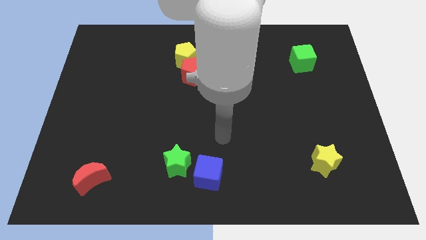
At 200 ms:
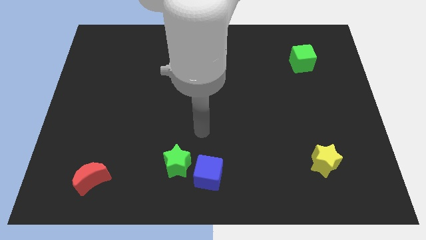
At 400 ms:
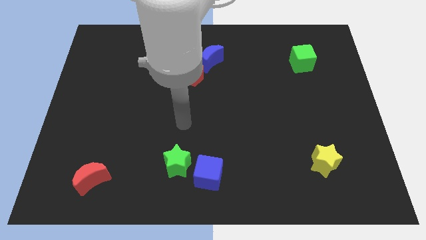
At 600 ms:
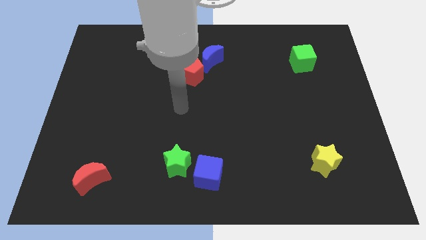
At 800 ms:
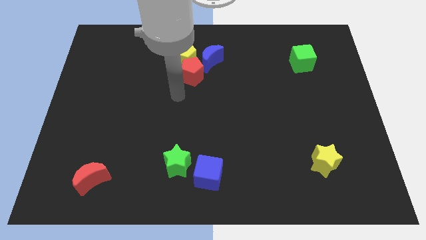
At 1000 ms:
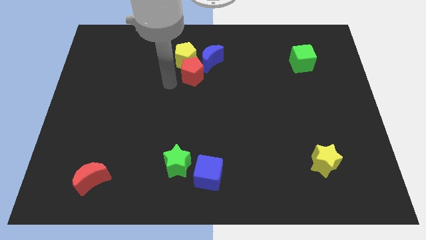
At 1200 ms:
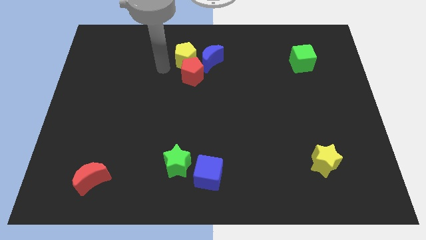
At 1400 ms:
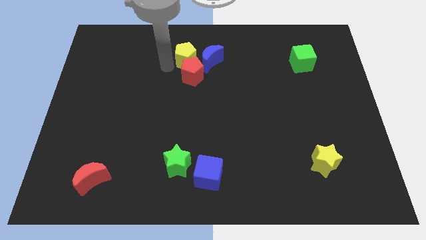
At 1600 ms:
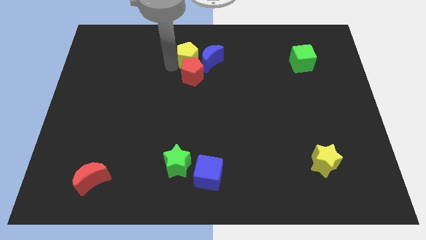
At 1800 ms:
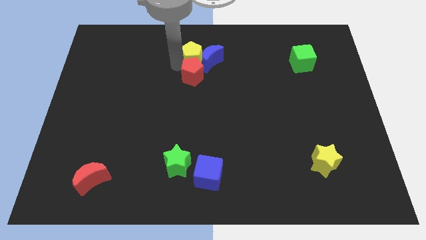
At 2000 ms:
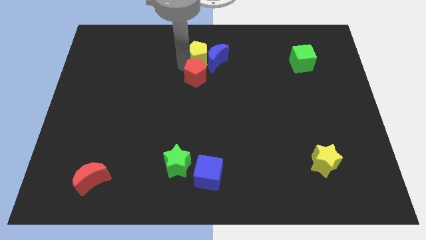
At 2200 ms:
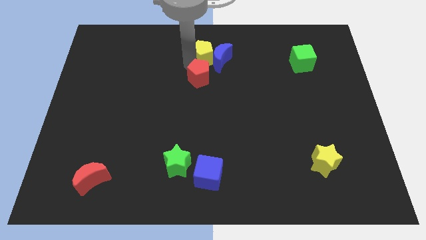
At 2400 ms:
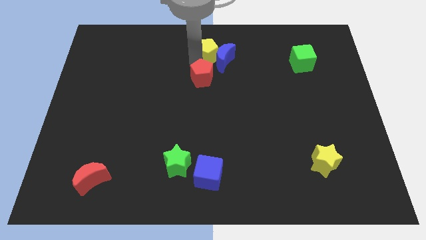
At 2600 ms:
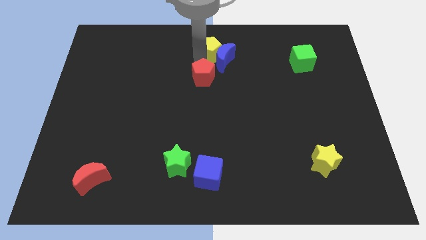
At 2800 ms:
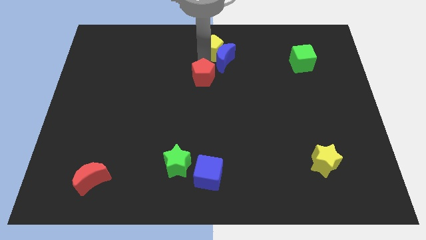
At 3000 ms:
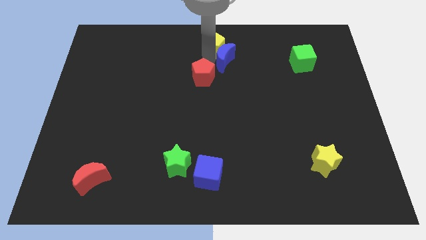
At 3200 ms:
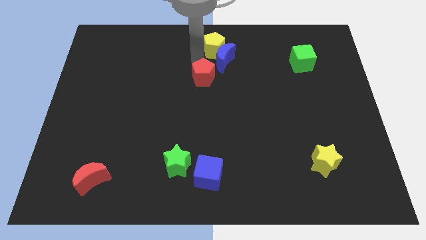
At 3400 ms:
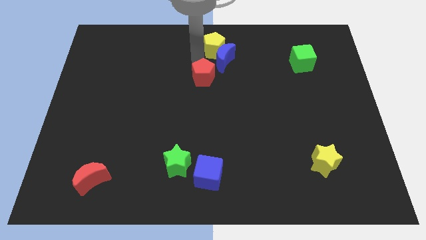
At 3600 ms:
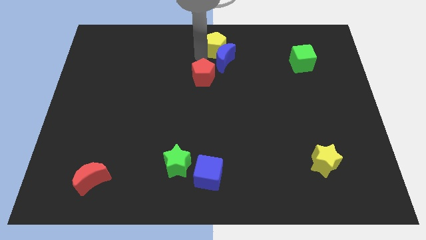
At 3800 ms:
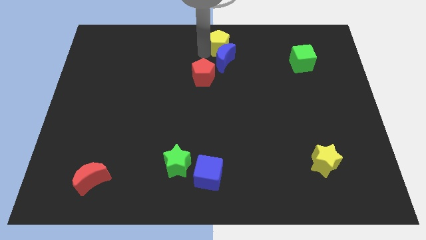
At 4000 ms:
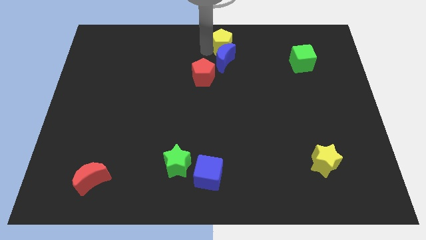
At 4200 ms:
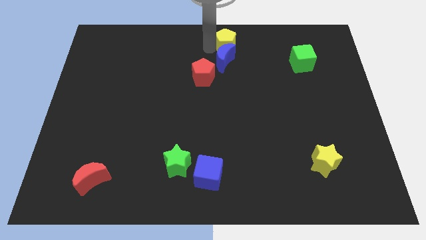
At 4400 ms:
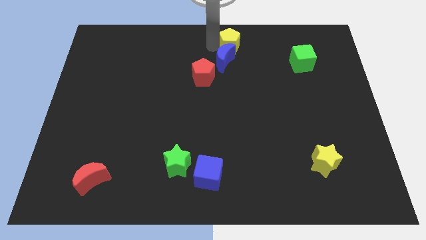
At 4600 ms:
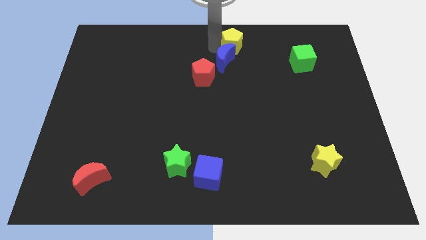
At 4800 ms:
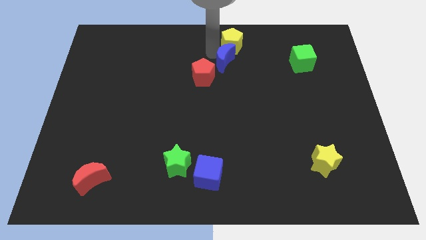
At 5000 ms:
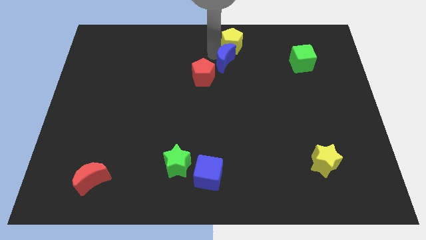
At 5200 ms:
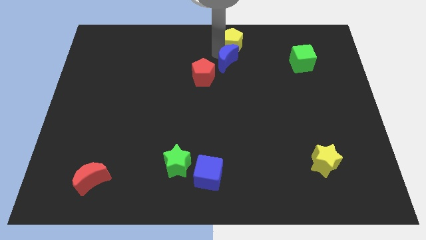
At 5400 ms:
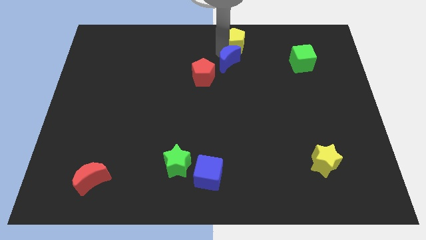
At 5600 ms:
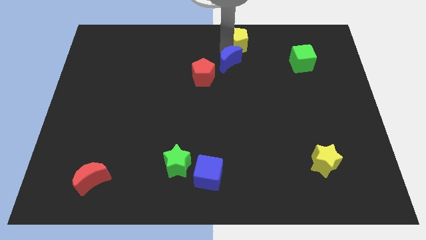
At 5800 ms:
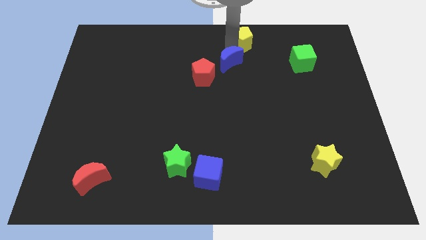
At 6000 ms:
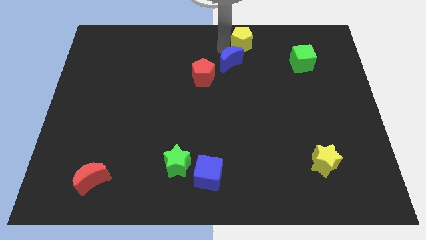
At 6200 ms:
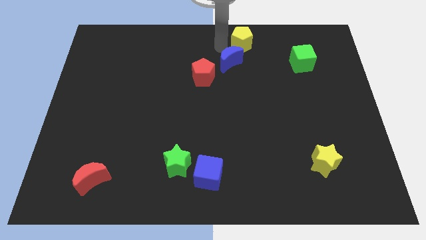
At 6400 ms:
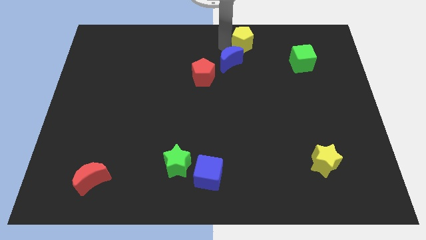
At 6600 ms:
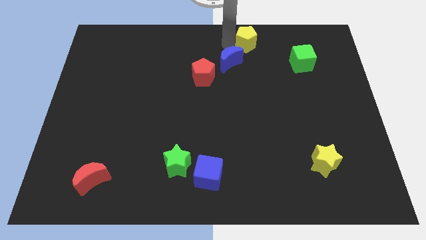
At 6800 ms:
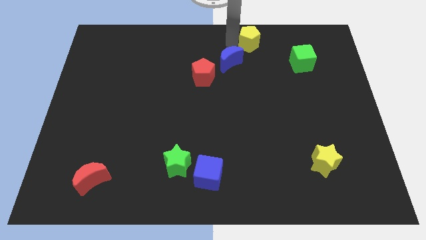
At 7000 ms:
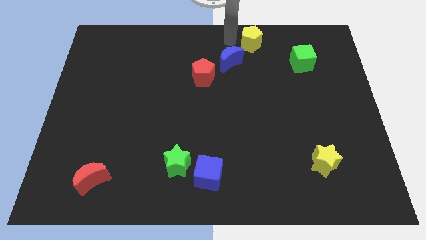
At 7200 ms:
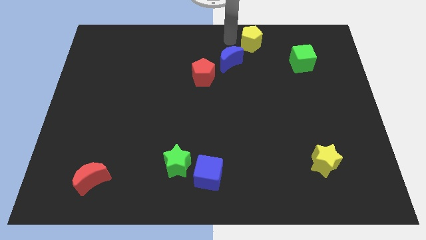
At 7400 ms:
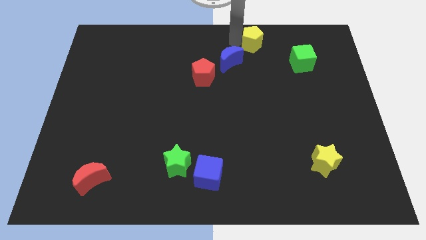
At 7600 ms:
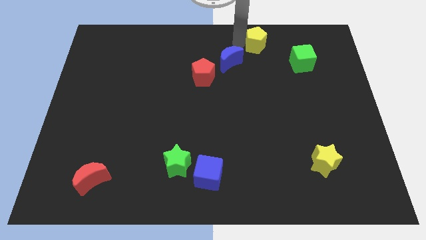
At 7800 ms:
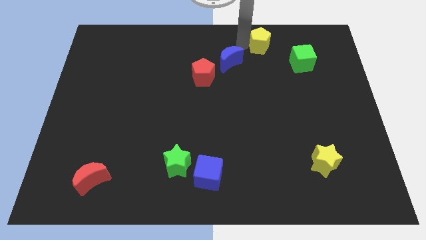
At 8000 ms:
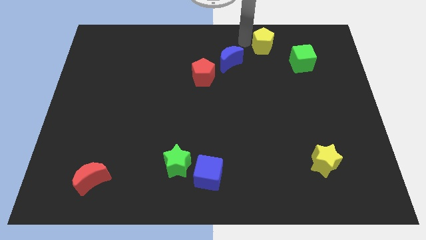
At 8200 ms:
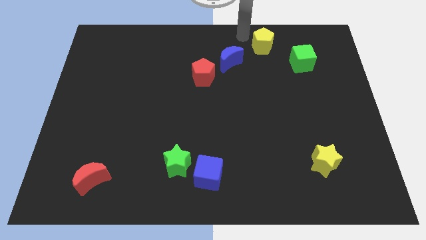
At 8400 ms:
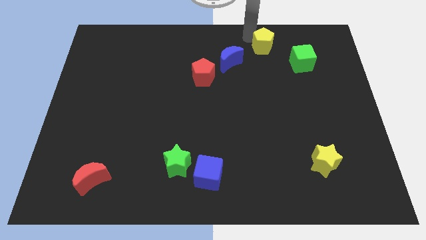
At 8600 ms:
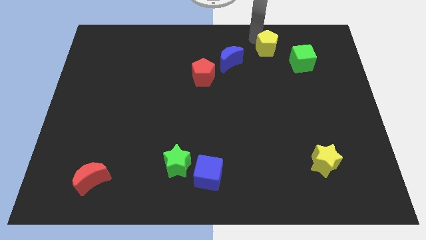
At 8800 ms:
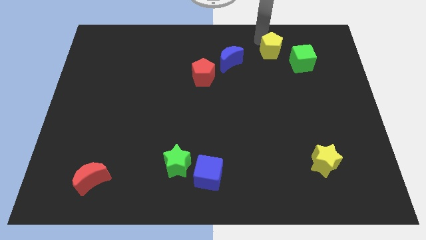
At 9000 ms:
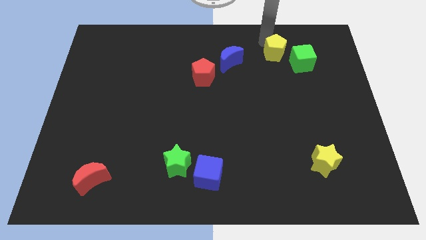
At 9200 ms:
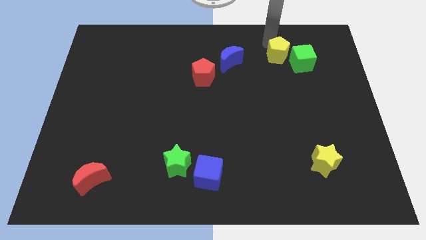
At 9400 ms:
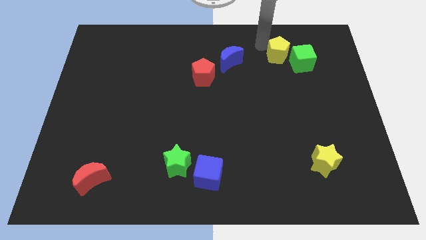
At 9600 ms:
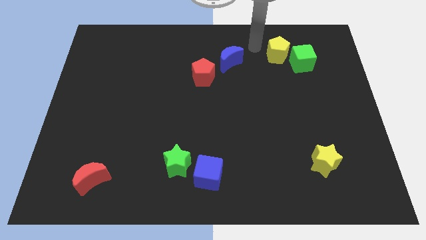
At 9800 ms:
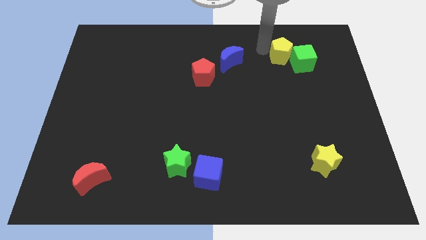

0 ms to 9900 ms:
slide the yellow pentagon next to the green cube

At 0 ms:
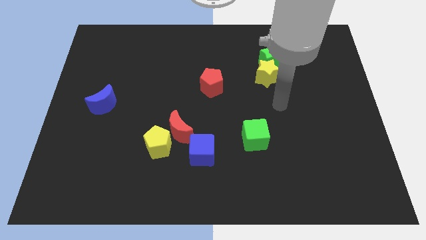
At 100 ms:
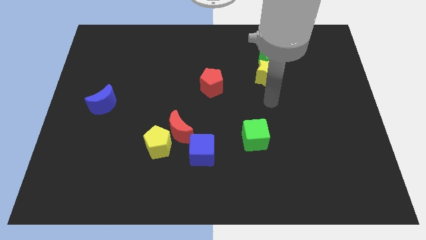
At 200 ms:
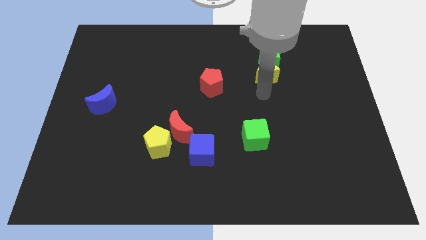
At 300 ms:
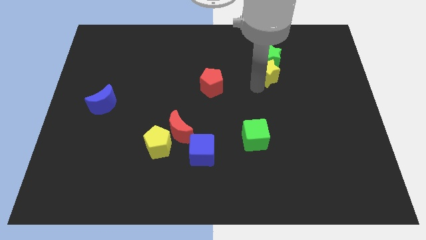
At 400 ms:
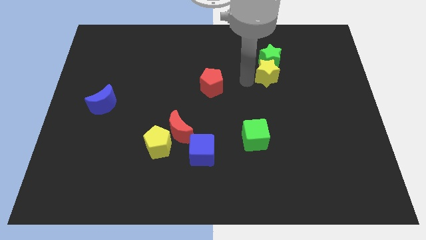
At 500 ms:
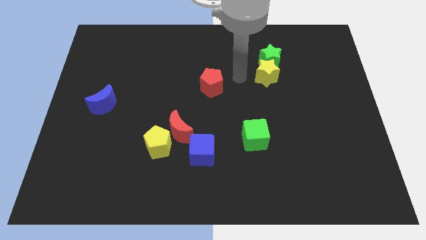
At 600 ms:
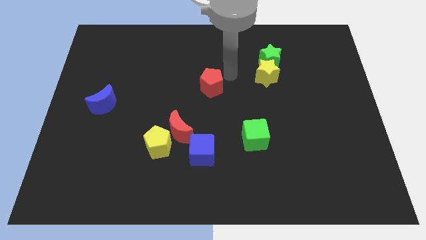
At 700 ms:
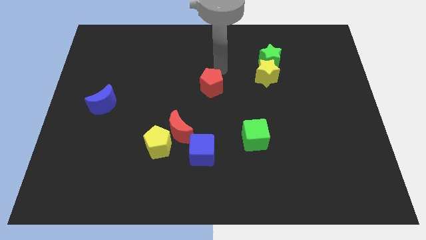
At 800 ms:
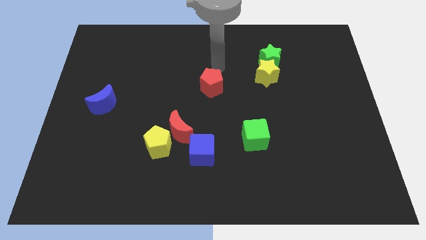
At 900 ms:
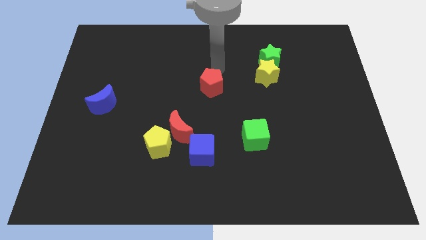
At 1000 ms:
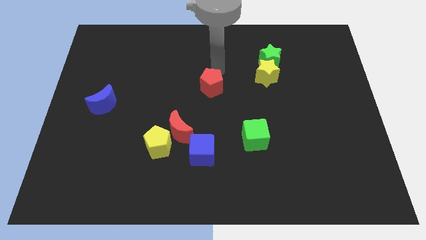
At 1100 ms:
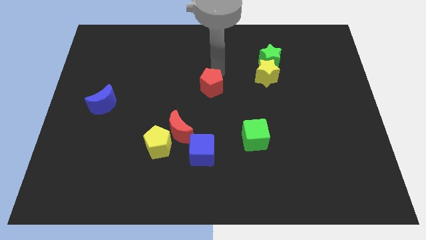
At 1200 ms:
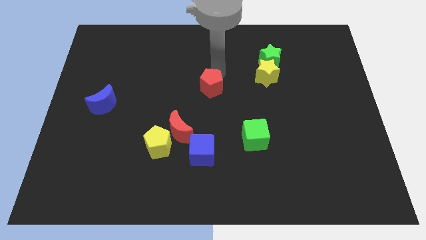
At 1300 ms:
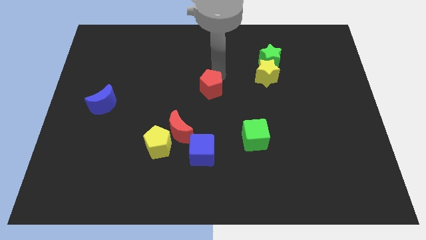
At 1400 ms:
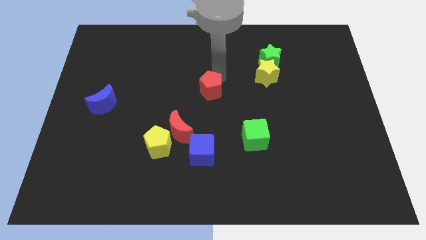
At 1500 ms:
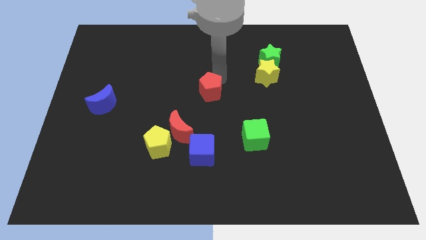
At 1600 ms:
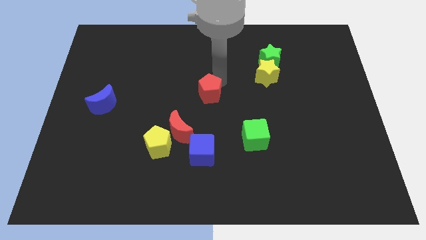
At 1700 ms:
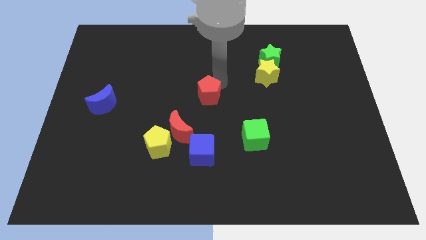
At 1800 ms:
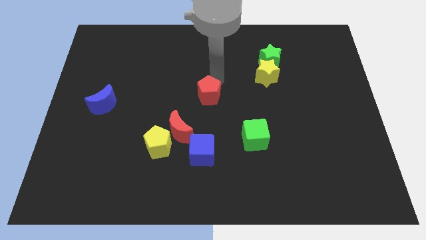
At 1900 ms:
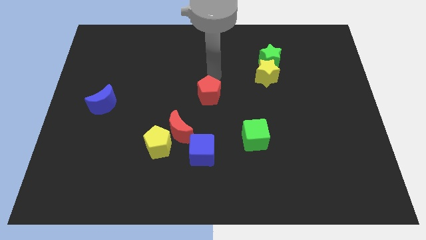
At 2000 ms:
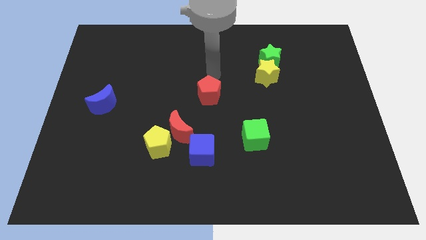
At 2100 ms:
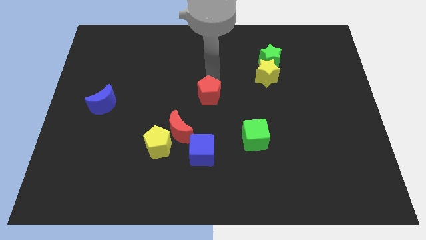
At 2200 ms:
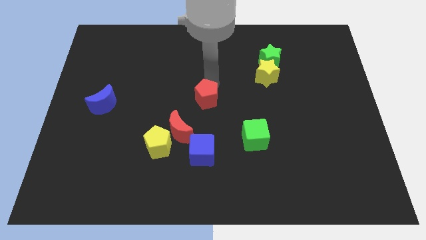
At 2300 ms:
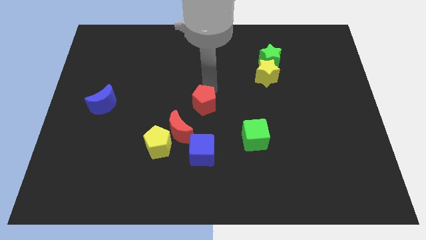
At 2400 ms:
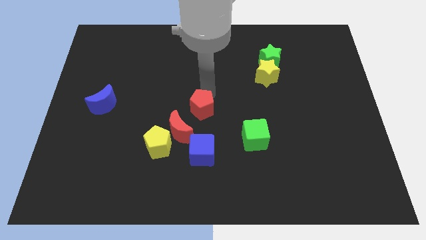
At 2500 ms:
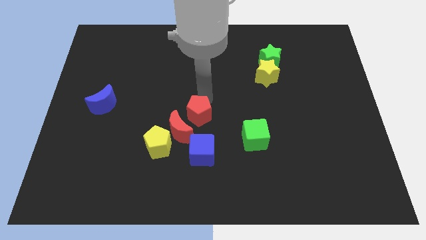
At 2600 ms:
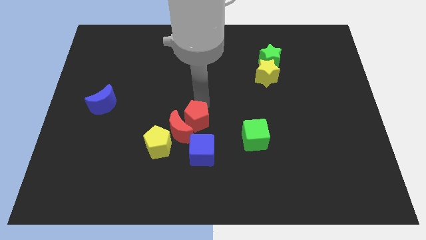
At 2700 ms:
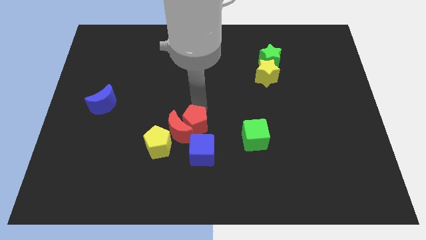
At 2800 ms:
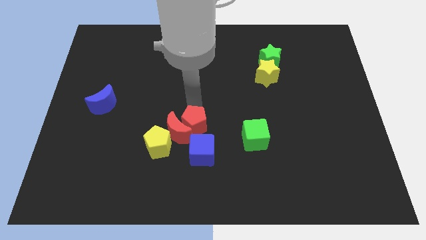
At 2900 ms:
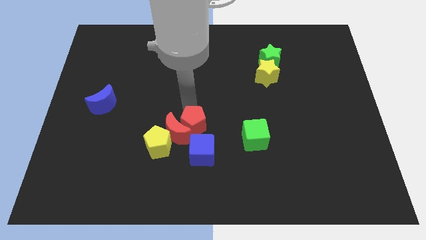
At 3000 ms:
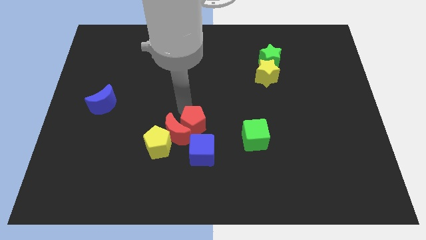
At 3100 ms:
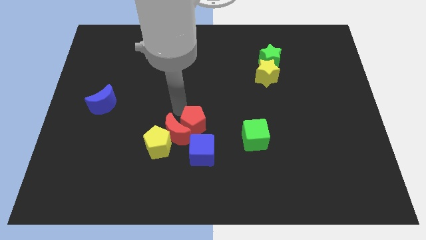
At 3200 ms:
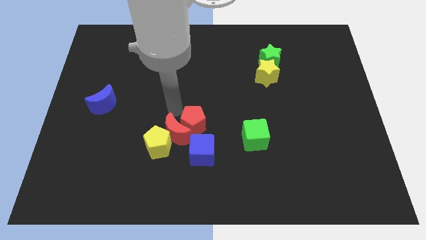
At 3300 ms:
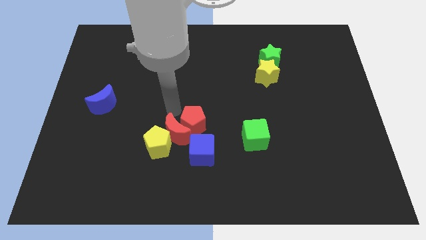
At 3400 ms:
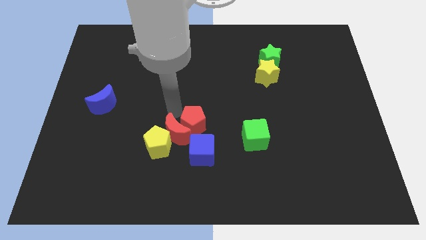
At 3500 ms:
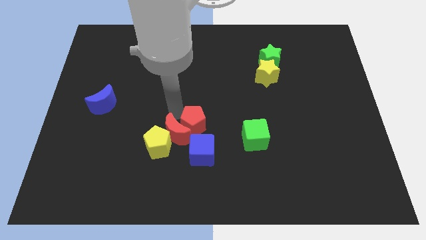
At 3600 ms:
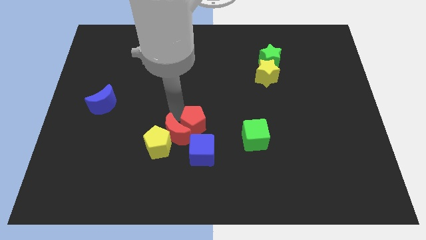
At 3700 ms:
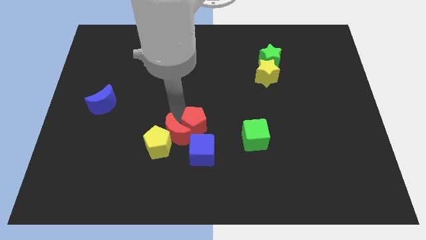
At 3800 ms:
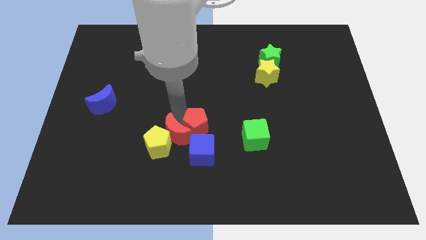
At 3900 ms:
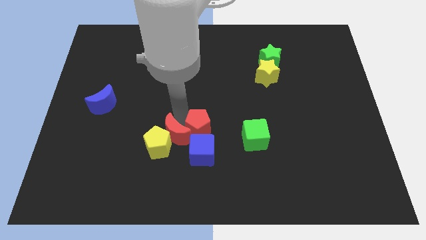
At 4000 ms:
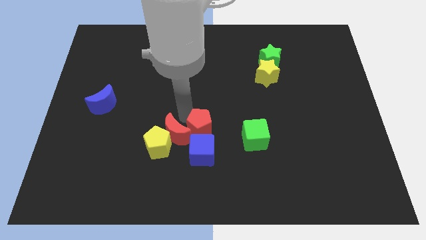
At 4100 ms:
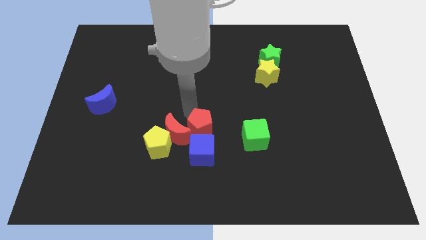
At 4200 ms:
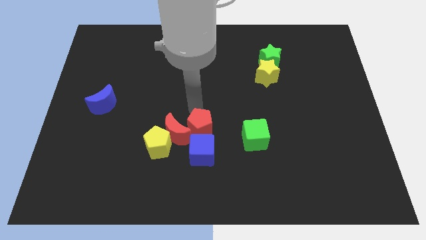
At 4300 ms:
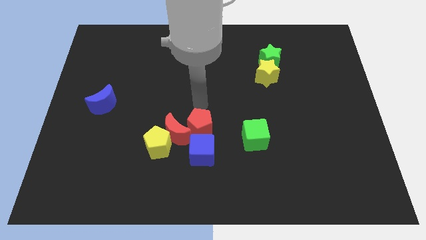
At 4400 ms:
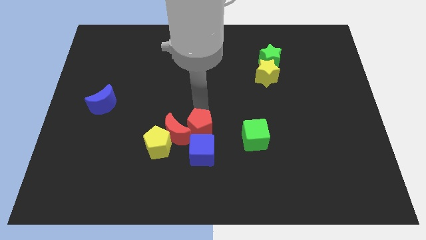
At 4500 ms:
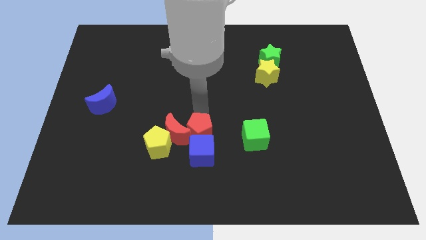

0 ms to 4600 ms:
put the red pentagon close to the blue cube
